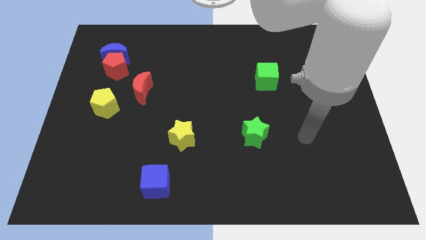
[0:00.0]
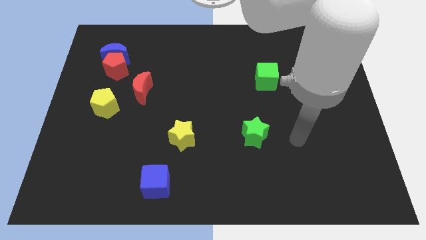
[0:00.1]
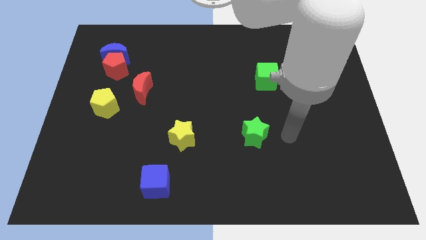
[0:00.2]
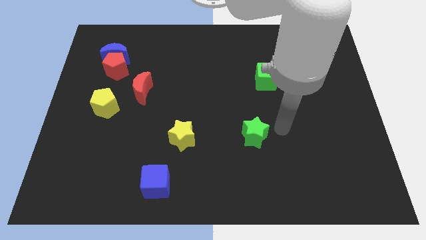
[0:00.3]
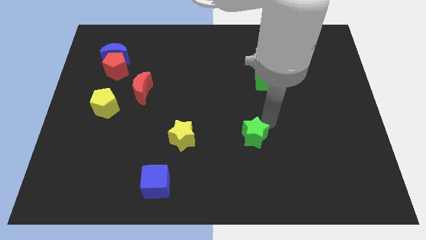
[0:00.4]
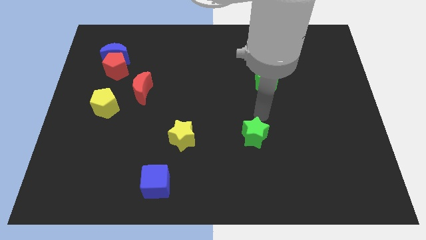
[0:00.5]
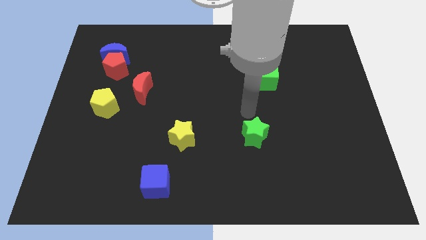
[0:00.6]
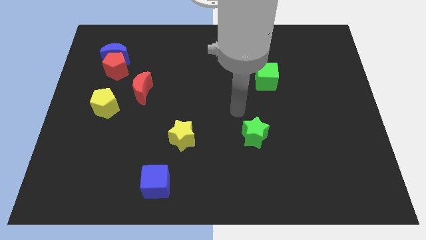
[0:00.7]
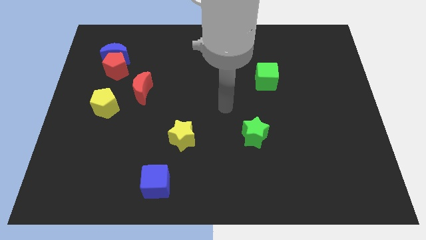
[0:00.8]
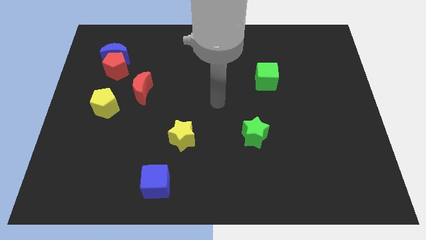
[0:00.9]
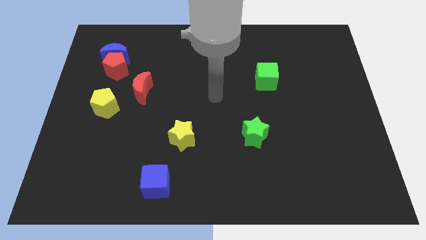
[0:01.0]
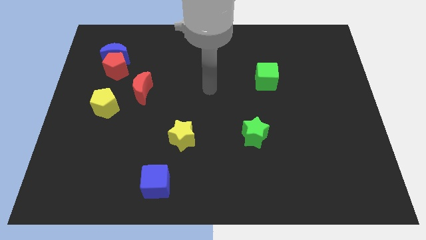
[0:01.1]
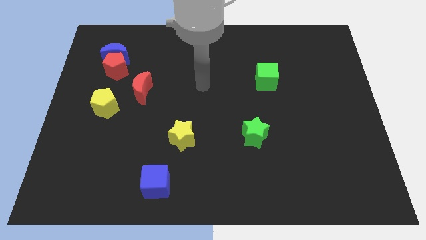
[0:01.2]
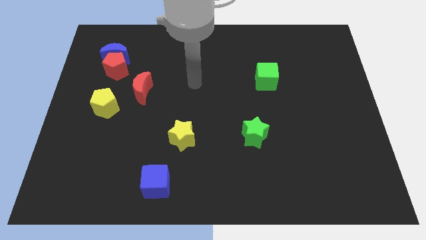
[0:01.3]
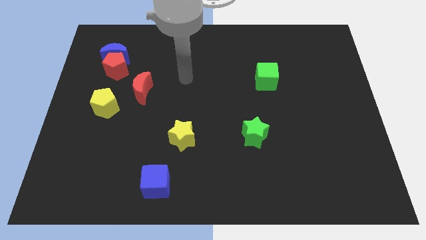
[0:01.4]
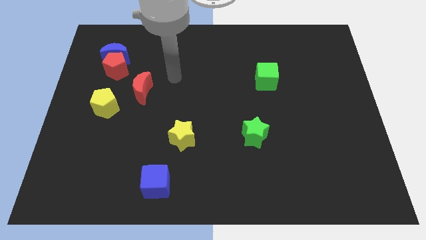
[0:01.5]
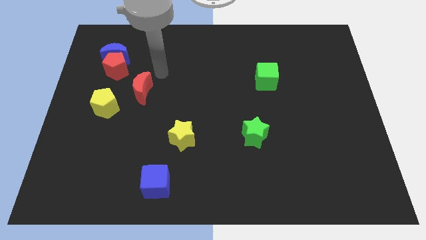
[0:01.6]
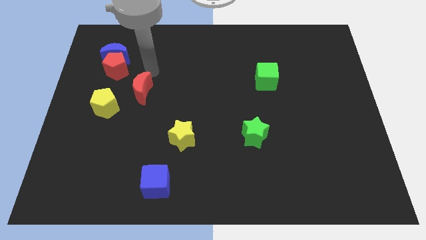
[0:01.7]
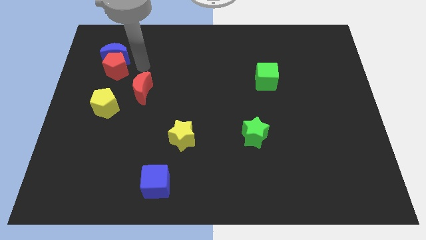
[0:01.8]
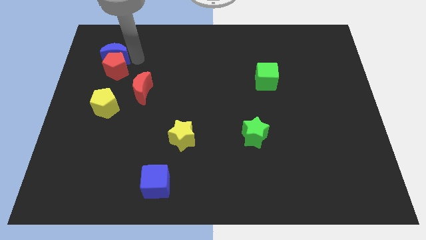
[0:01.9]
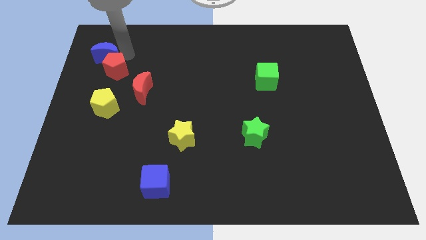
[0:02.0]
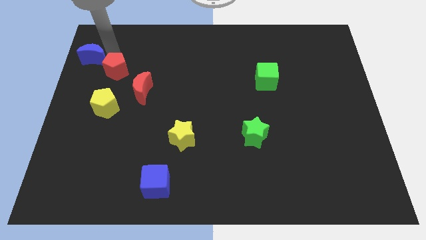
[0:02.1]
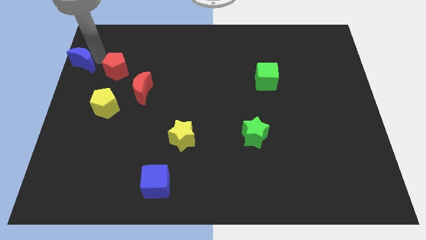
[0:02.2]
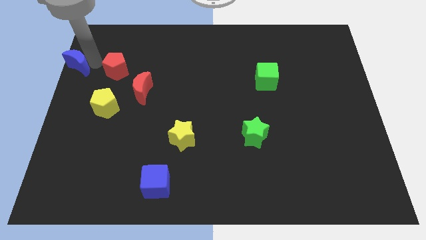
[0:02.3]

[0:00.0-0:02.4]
move the red pentagon away from the blue moon

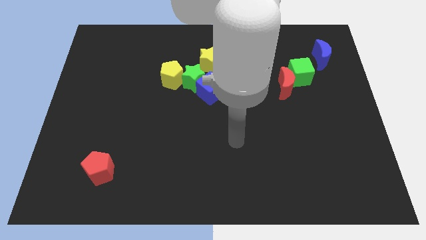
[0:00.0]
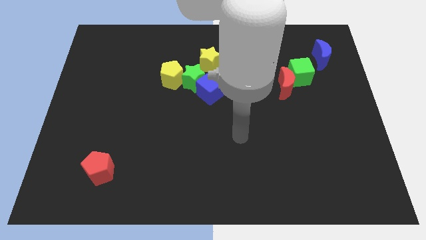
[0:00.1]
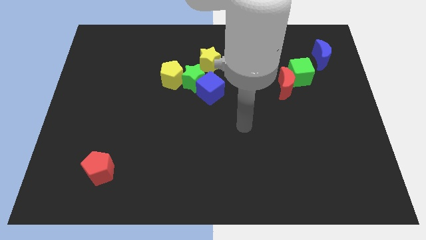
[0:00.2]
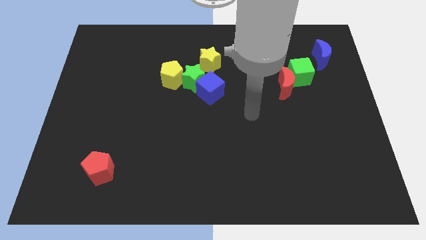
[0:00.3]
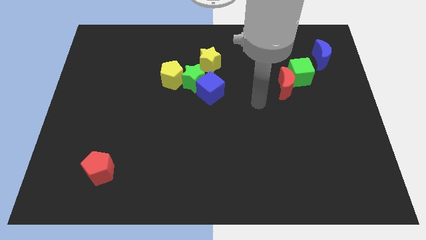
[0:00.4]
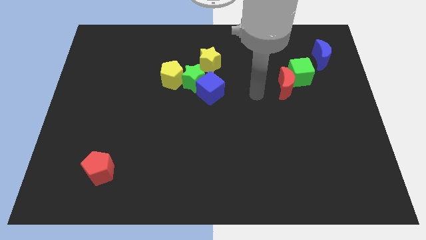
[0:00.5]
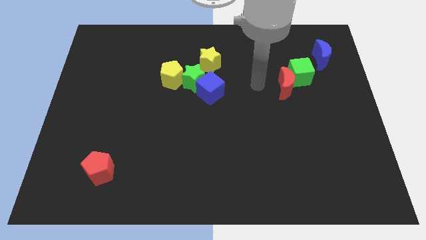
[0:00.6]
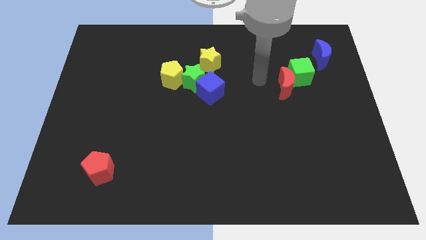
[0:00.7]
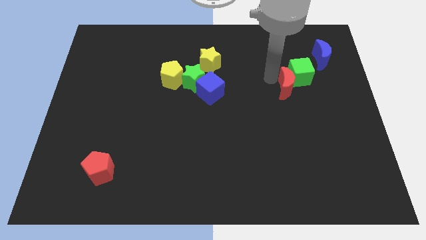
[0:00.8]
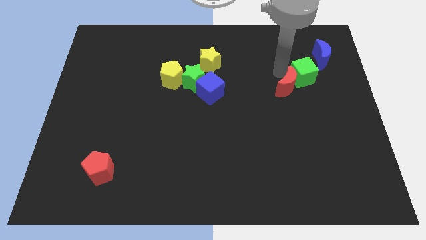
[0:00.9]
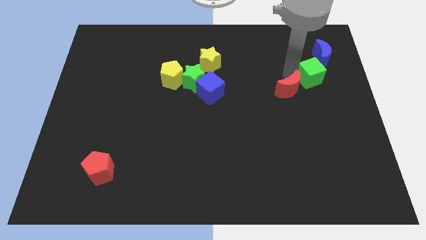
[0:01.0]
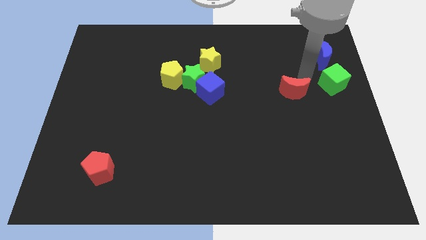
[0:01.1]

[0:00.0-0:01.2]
move the red moon away from the green cube

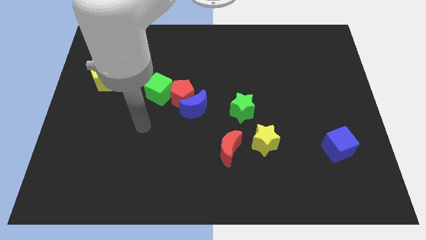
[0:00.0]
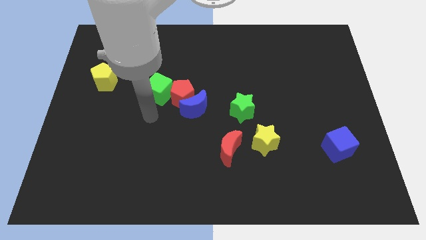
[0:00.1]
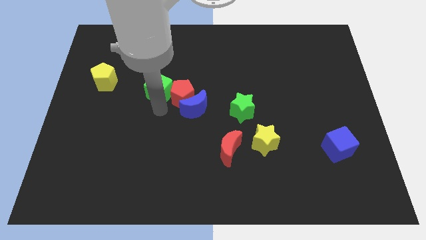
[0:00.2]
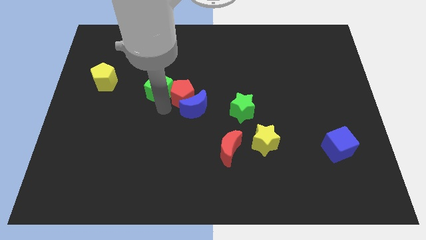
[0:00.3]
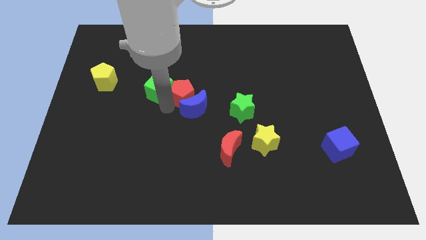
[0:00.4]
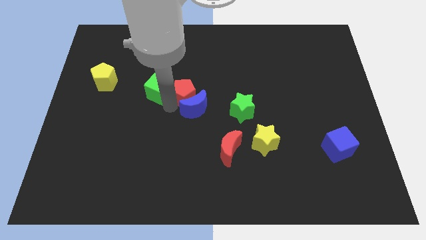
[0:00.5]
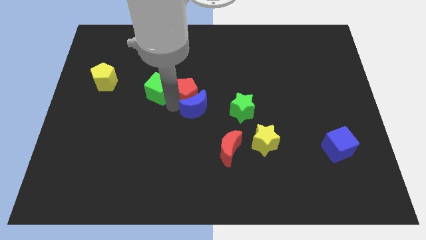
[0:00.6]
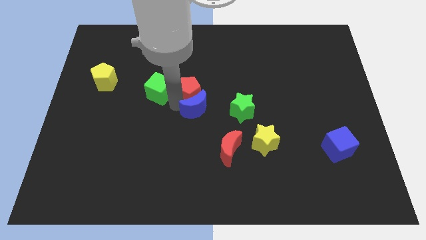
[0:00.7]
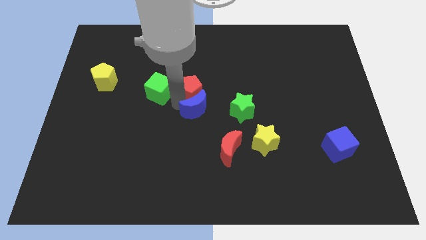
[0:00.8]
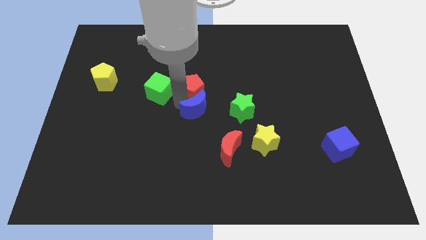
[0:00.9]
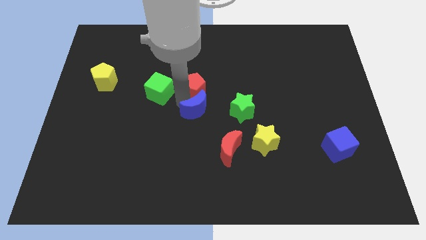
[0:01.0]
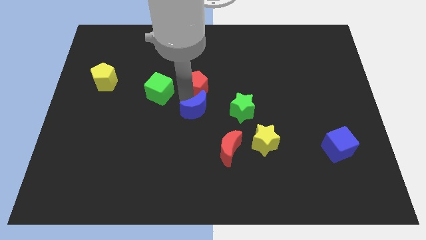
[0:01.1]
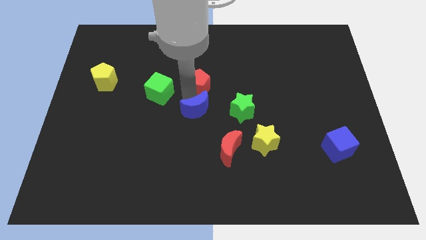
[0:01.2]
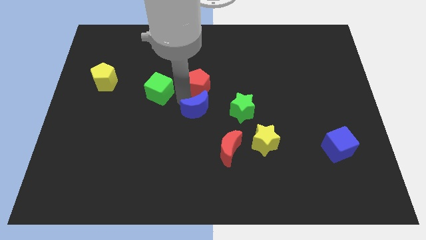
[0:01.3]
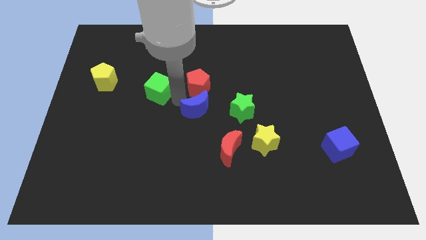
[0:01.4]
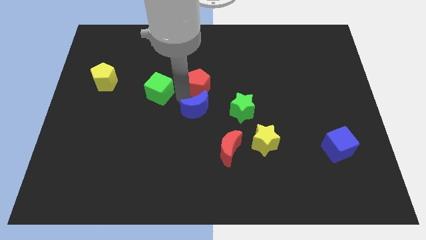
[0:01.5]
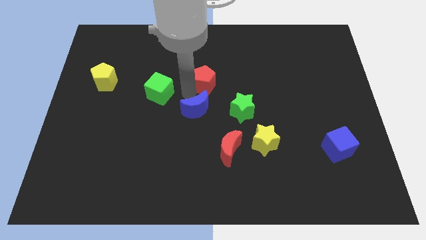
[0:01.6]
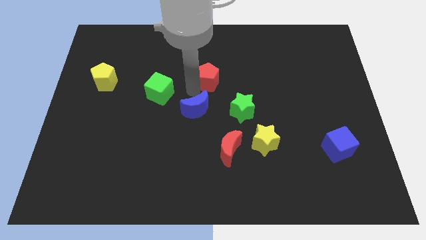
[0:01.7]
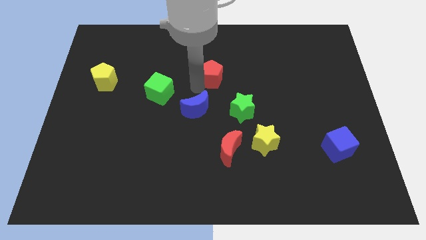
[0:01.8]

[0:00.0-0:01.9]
pull the red pentagon apart from the blue moon and green cube

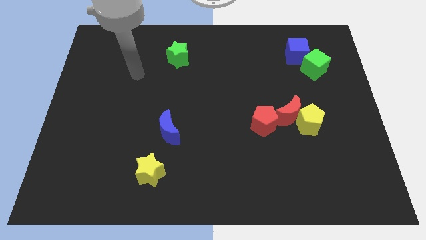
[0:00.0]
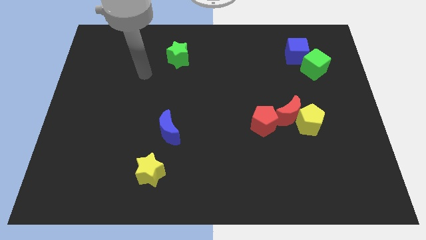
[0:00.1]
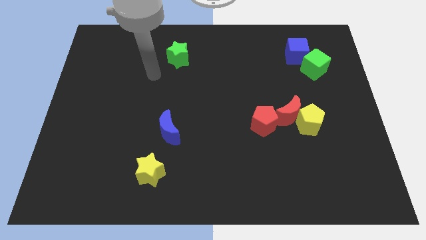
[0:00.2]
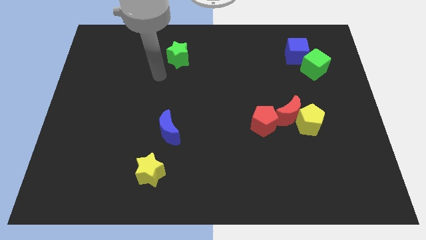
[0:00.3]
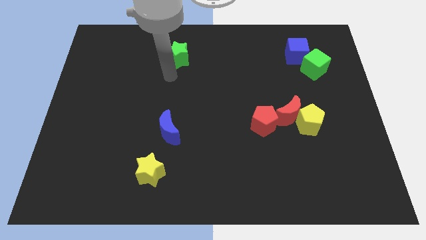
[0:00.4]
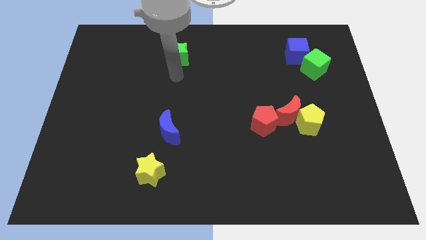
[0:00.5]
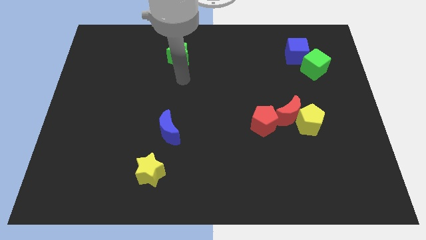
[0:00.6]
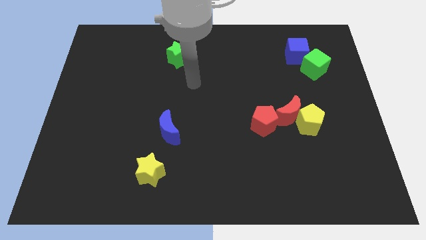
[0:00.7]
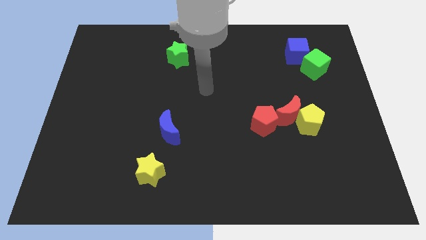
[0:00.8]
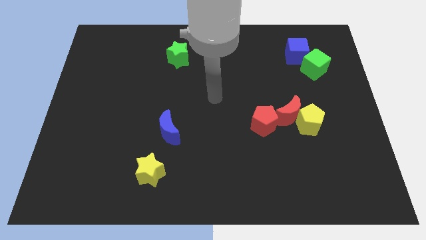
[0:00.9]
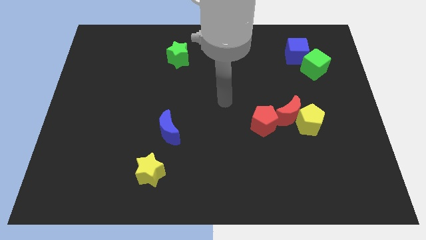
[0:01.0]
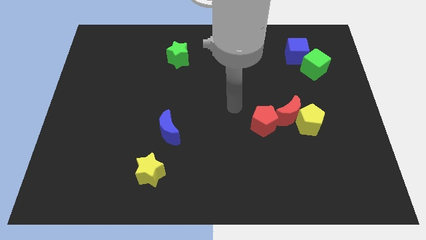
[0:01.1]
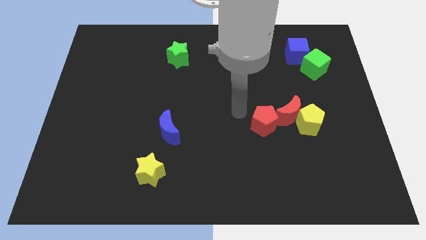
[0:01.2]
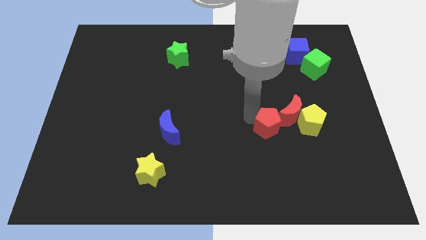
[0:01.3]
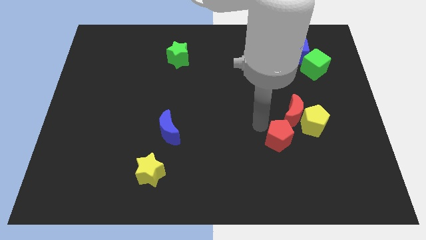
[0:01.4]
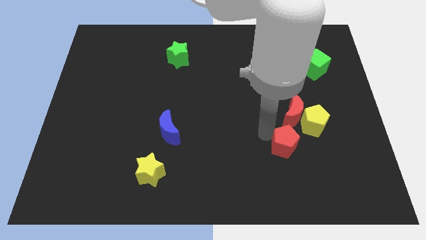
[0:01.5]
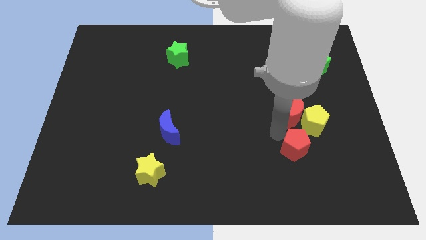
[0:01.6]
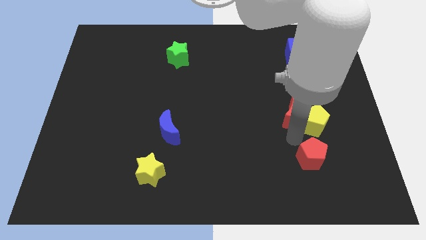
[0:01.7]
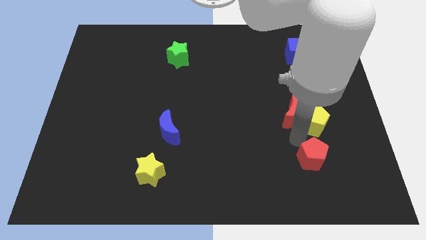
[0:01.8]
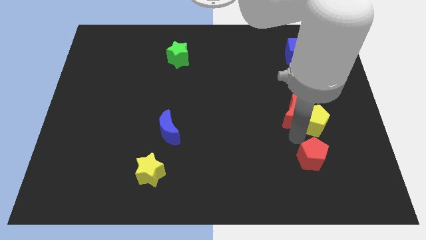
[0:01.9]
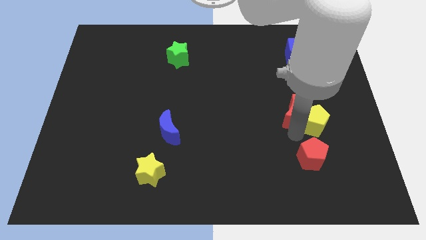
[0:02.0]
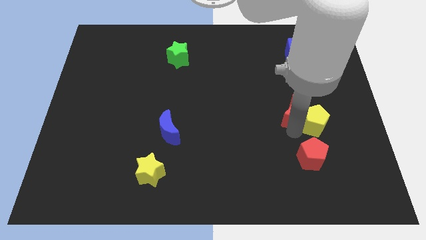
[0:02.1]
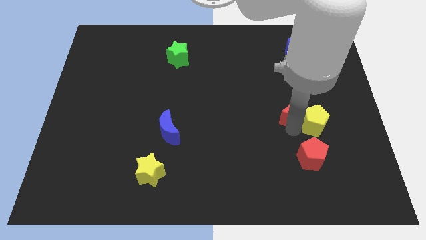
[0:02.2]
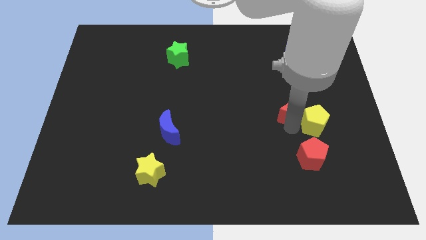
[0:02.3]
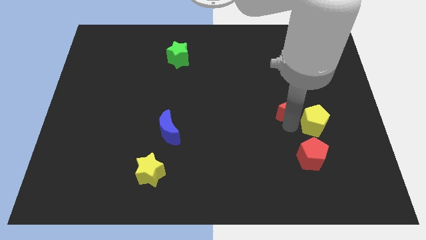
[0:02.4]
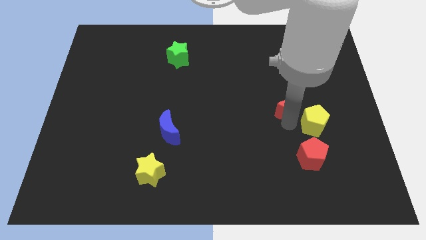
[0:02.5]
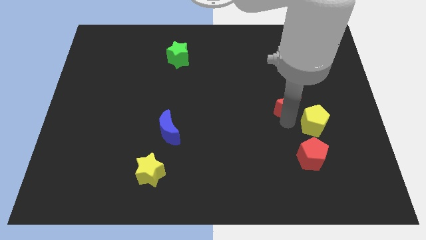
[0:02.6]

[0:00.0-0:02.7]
separate the red moon from the yellow pentagon and red pentagon

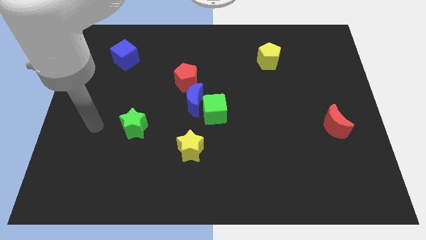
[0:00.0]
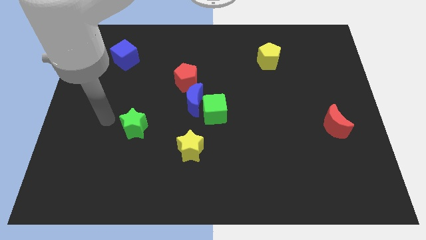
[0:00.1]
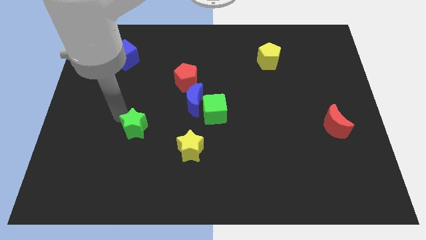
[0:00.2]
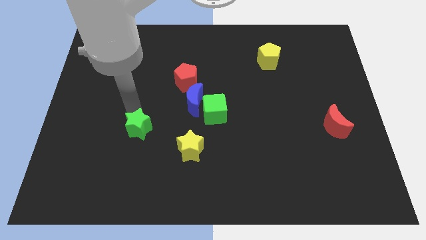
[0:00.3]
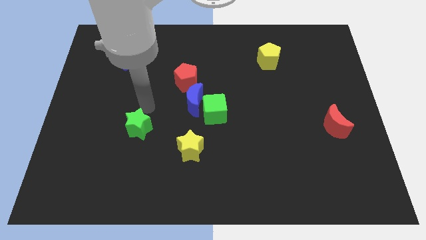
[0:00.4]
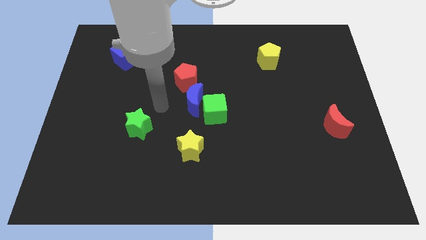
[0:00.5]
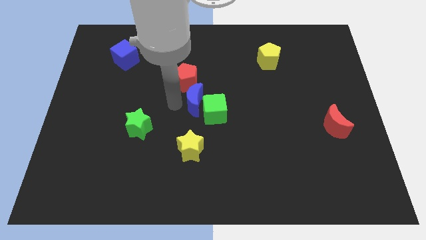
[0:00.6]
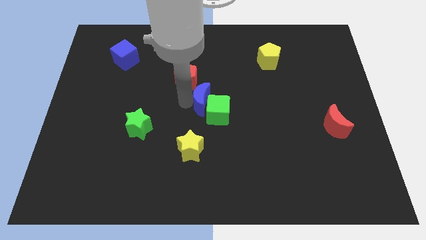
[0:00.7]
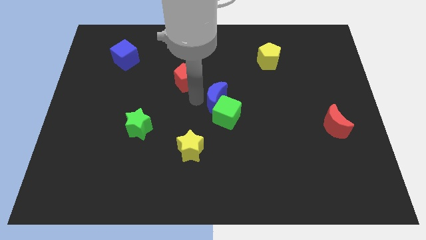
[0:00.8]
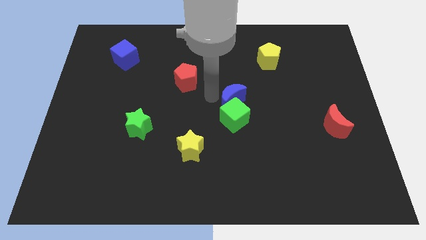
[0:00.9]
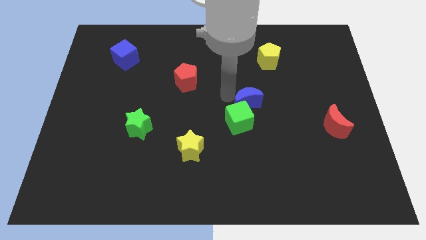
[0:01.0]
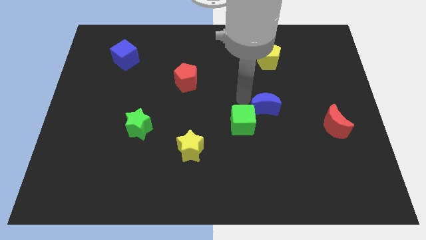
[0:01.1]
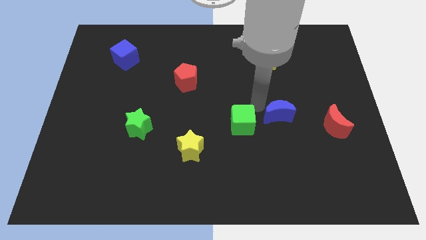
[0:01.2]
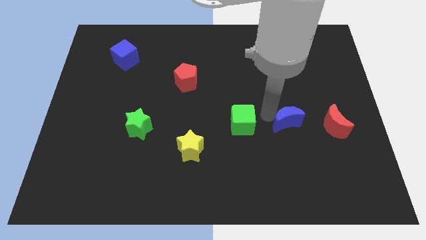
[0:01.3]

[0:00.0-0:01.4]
move the green cube away from the blue moon
